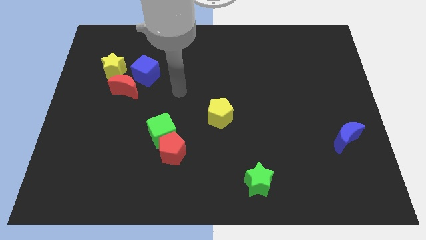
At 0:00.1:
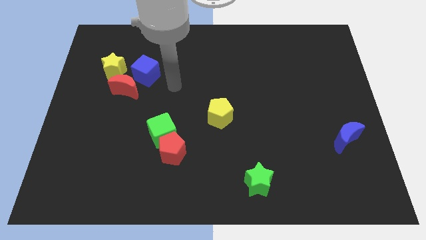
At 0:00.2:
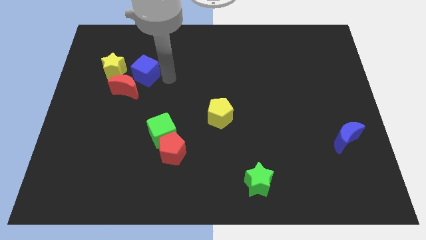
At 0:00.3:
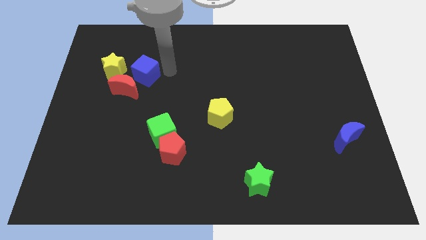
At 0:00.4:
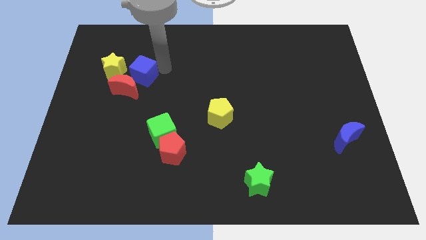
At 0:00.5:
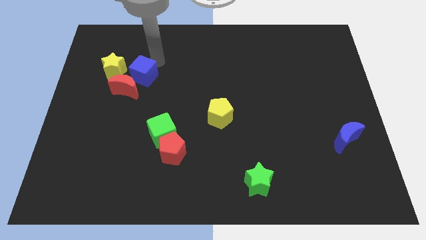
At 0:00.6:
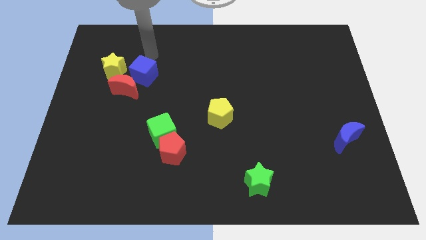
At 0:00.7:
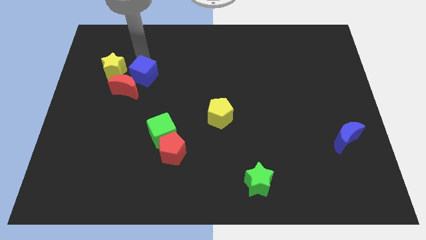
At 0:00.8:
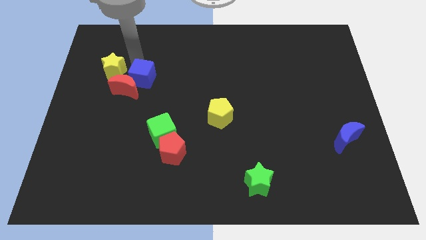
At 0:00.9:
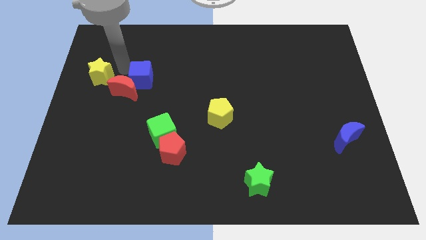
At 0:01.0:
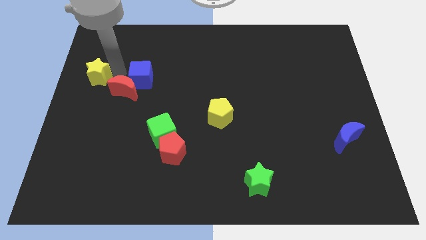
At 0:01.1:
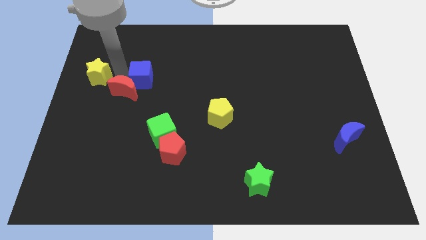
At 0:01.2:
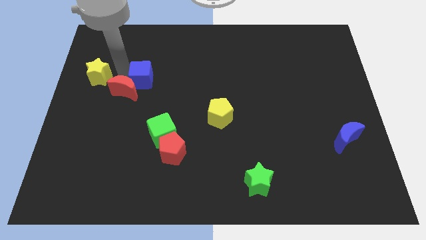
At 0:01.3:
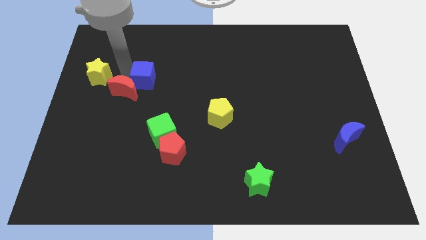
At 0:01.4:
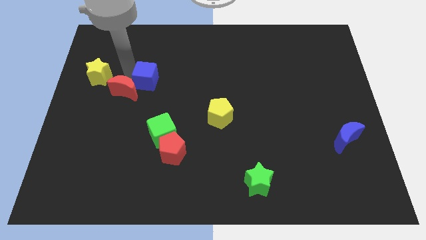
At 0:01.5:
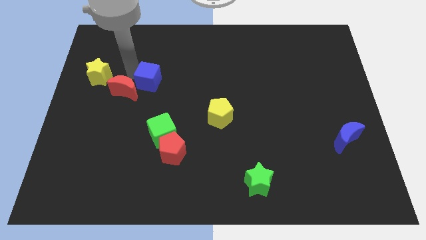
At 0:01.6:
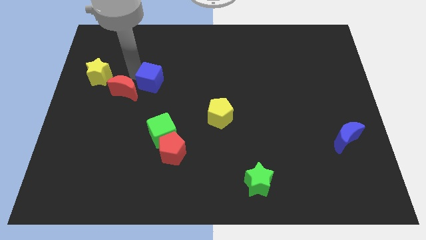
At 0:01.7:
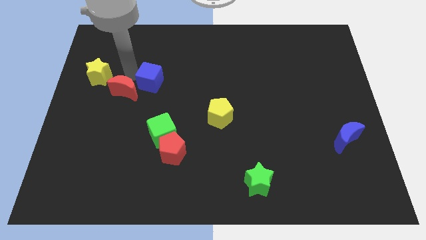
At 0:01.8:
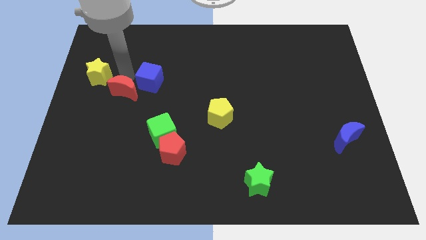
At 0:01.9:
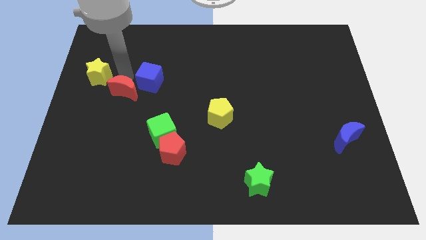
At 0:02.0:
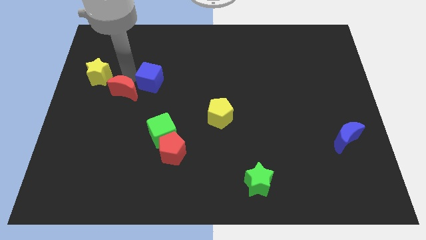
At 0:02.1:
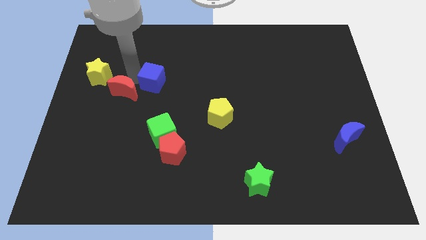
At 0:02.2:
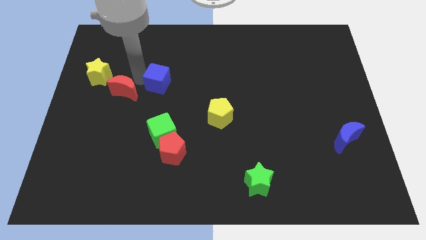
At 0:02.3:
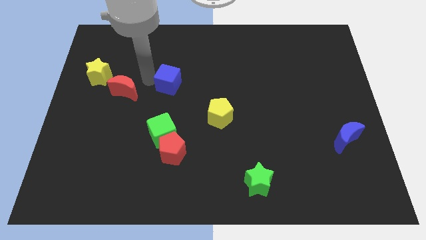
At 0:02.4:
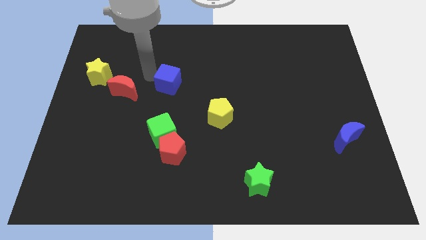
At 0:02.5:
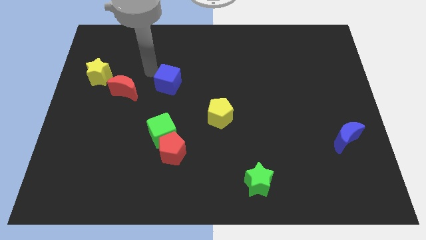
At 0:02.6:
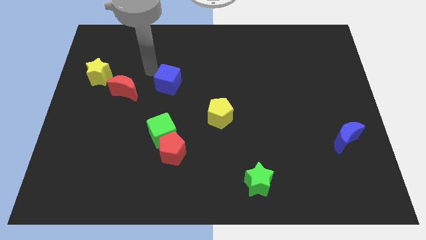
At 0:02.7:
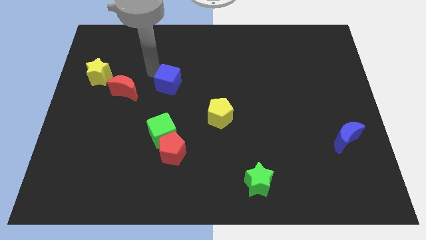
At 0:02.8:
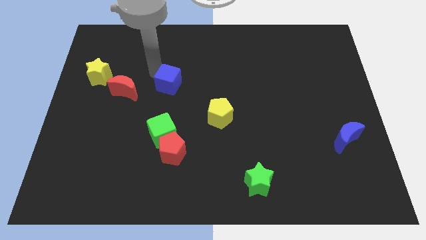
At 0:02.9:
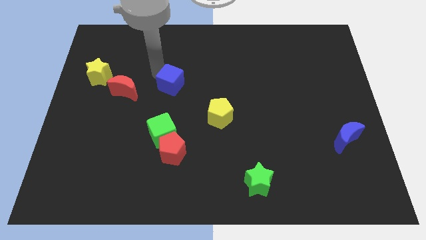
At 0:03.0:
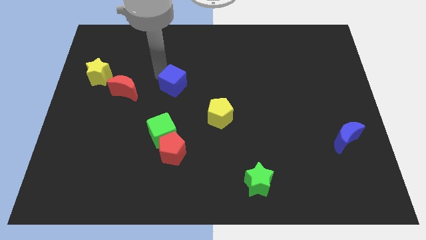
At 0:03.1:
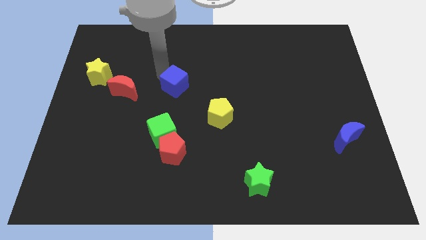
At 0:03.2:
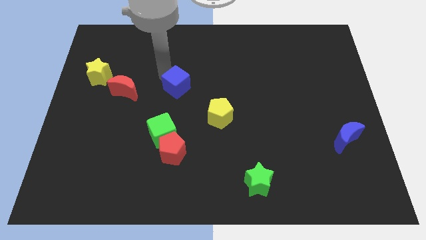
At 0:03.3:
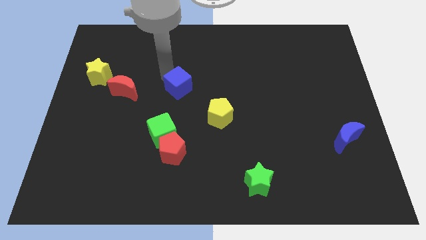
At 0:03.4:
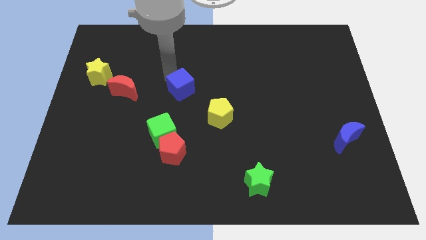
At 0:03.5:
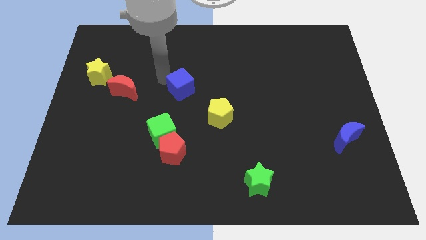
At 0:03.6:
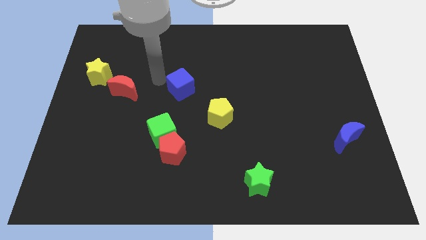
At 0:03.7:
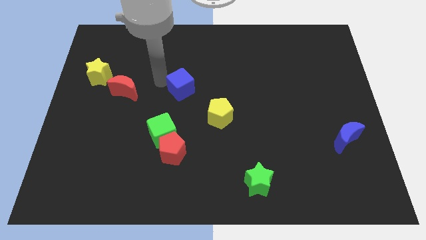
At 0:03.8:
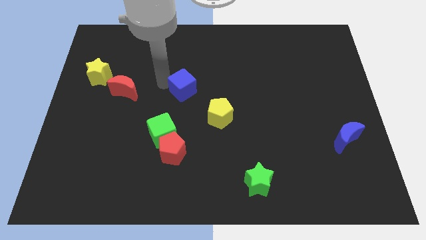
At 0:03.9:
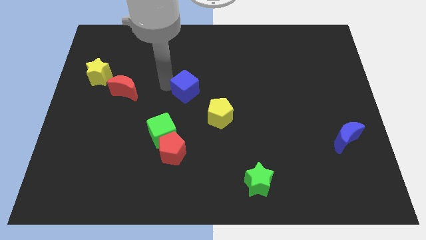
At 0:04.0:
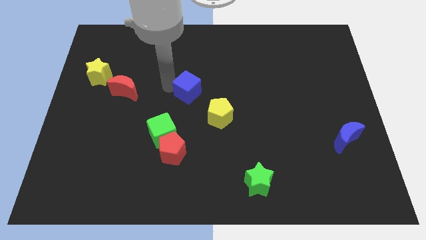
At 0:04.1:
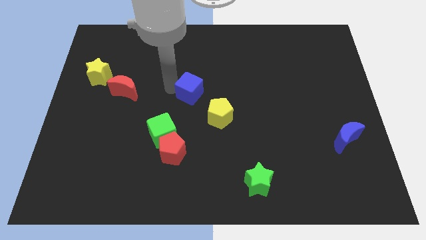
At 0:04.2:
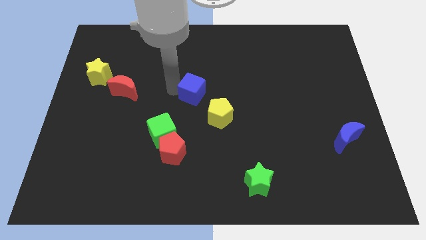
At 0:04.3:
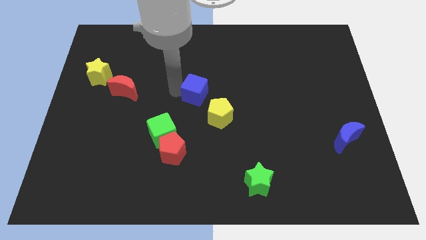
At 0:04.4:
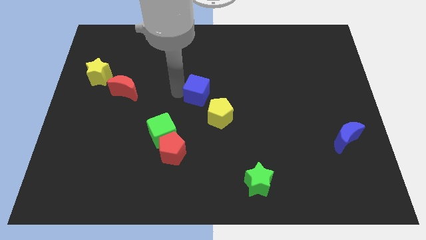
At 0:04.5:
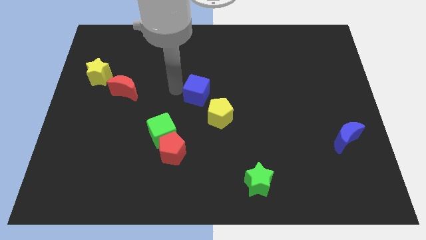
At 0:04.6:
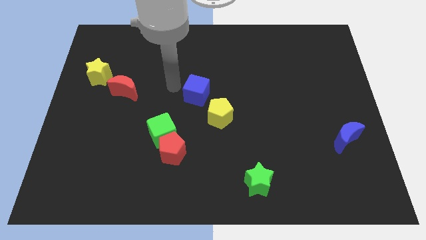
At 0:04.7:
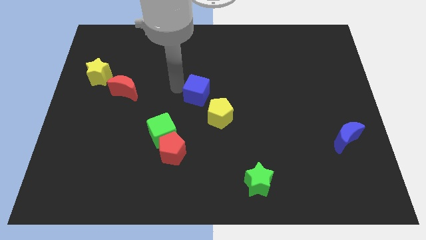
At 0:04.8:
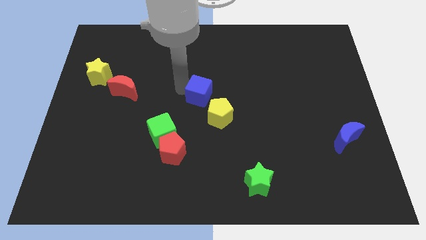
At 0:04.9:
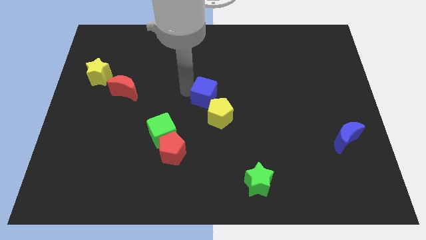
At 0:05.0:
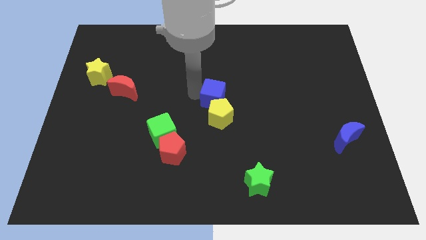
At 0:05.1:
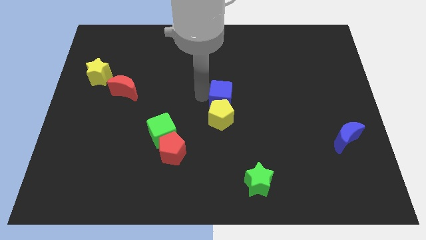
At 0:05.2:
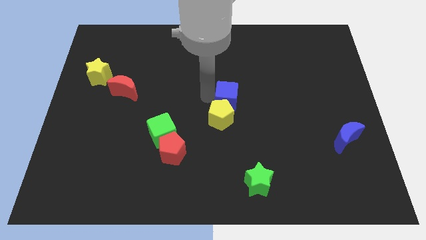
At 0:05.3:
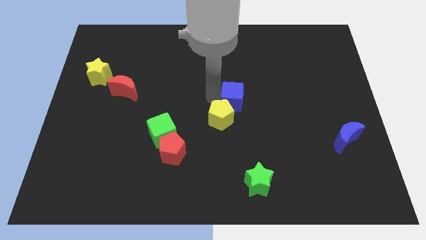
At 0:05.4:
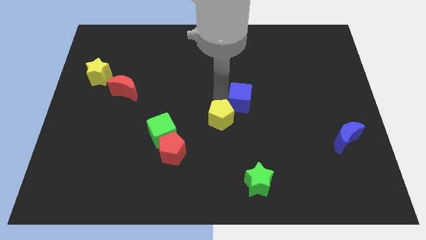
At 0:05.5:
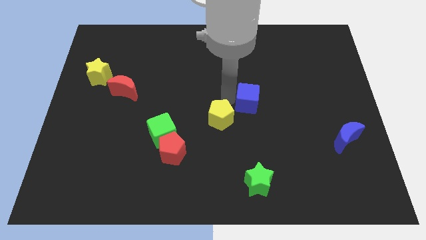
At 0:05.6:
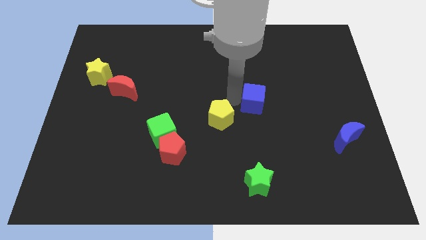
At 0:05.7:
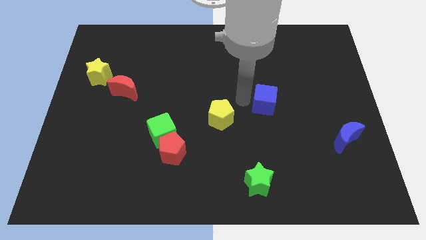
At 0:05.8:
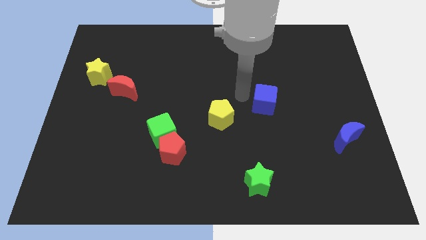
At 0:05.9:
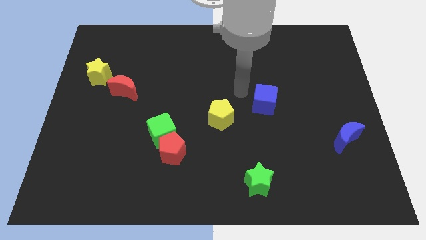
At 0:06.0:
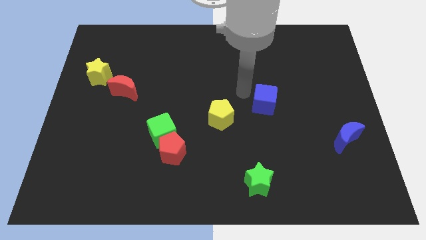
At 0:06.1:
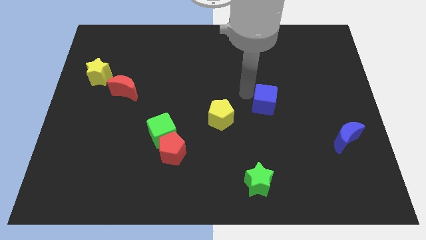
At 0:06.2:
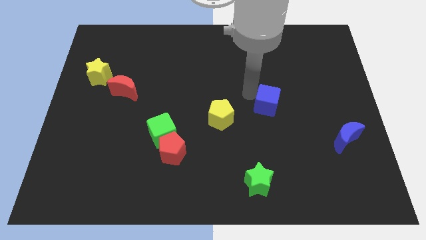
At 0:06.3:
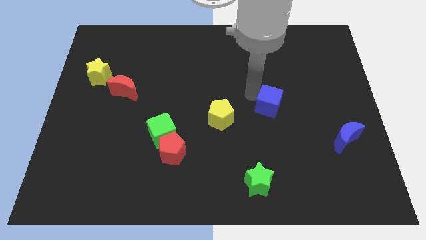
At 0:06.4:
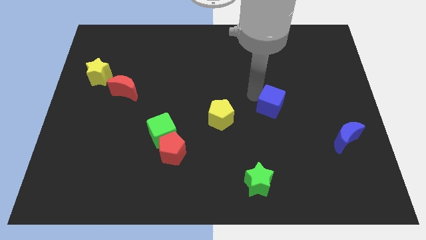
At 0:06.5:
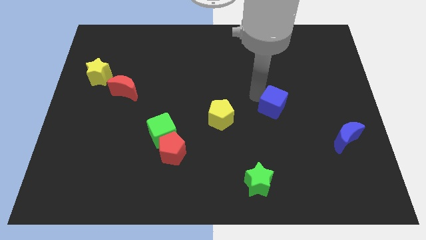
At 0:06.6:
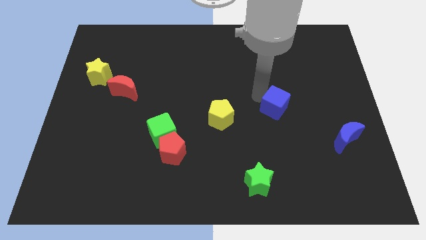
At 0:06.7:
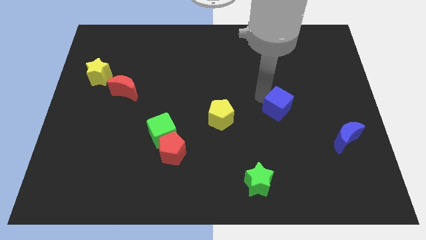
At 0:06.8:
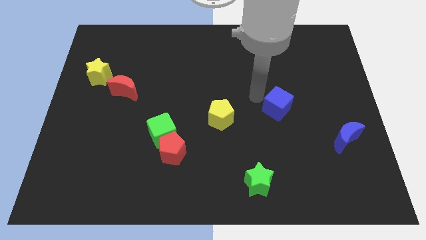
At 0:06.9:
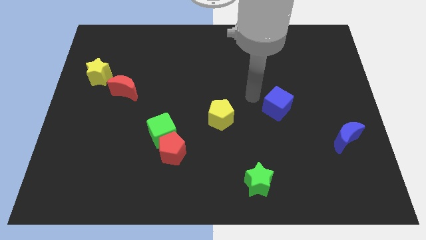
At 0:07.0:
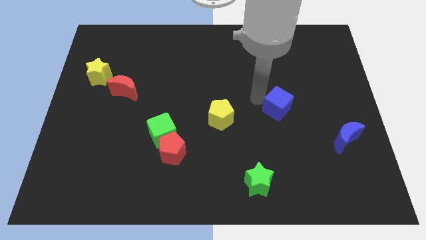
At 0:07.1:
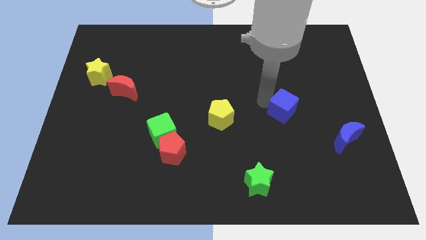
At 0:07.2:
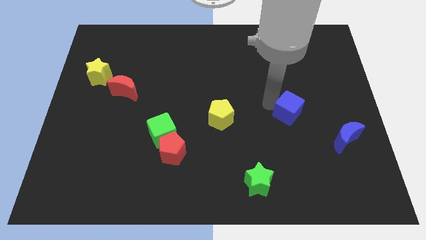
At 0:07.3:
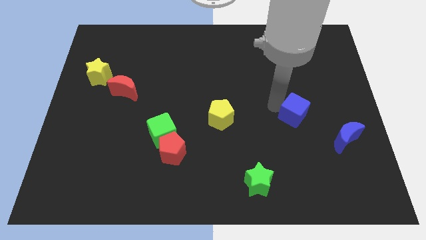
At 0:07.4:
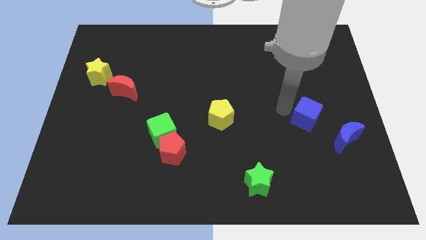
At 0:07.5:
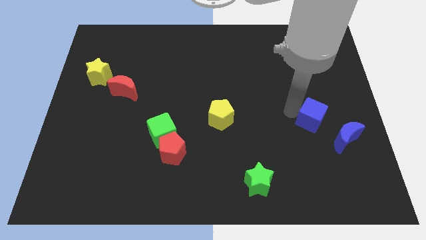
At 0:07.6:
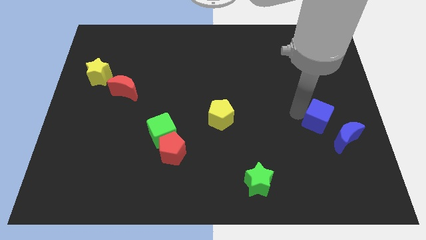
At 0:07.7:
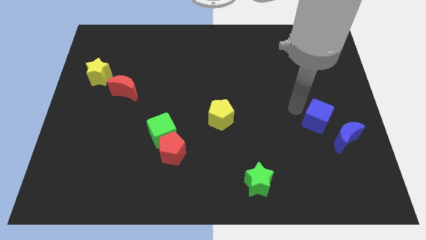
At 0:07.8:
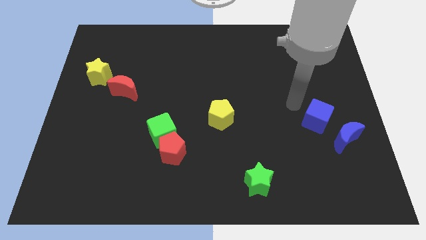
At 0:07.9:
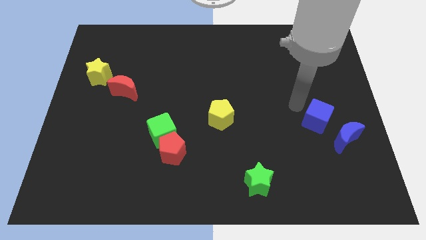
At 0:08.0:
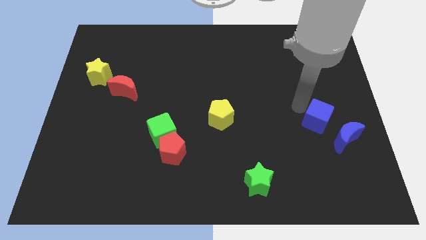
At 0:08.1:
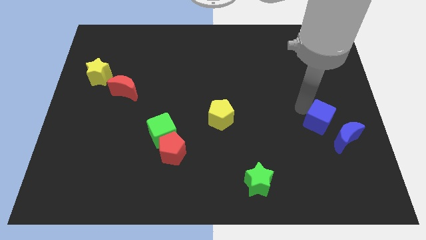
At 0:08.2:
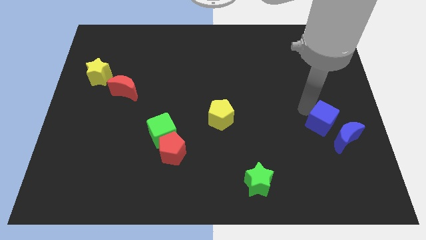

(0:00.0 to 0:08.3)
move the blue cube towards the blue moon
